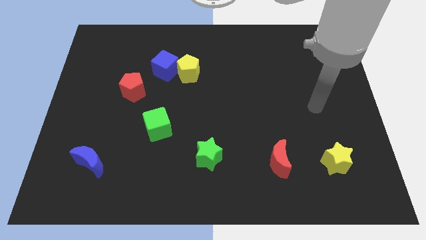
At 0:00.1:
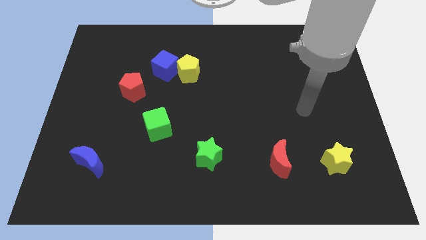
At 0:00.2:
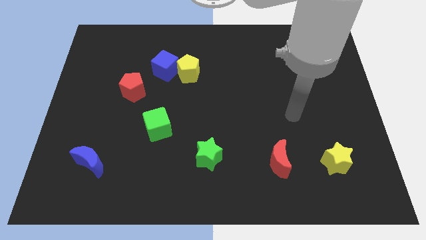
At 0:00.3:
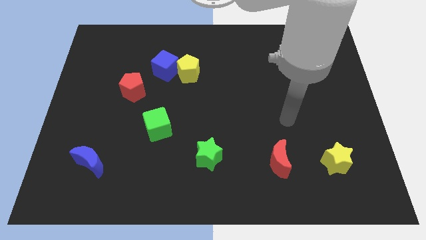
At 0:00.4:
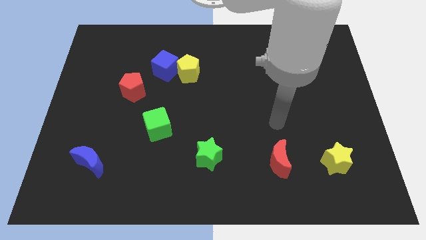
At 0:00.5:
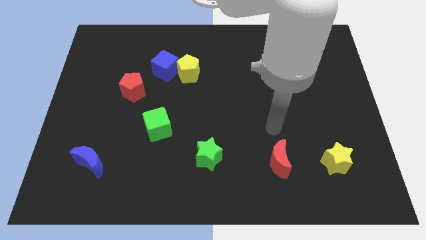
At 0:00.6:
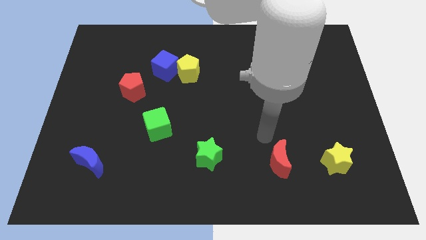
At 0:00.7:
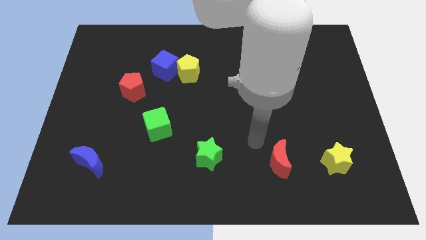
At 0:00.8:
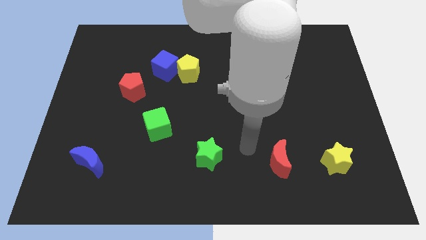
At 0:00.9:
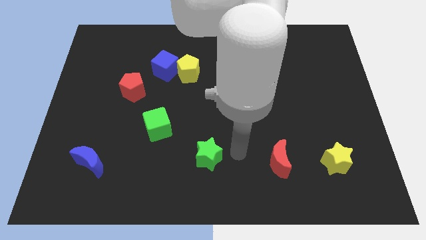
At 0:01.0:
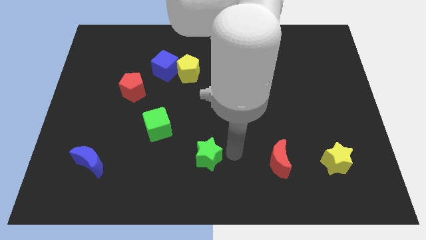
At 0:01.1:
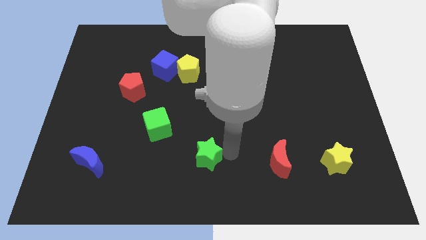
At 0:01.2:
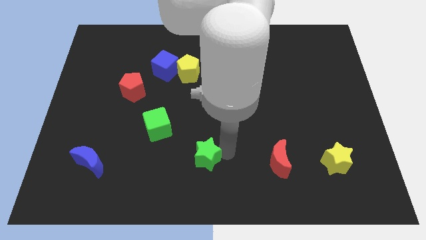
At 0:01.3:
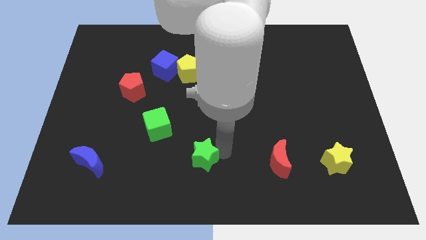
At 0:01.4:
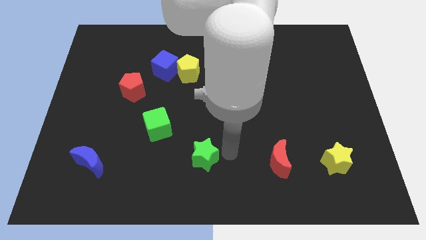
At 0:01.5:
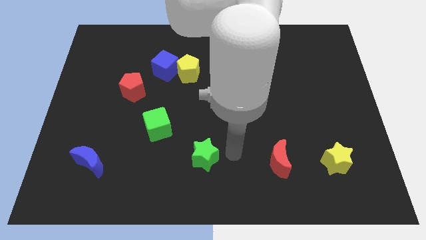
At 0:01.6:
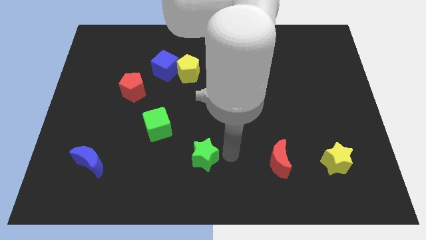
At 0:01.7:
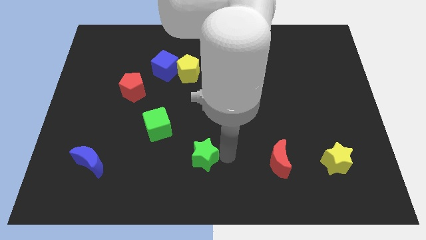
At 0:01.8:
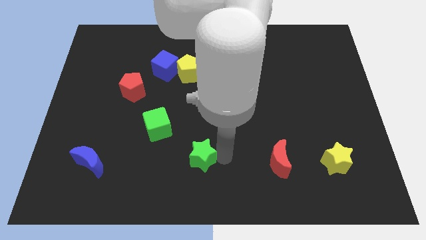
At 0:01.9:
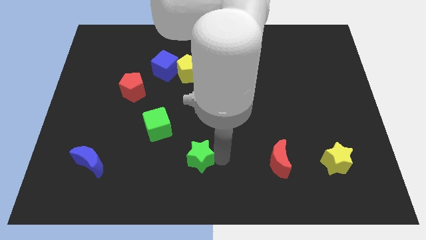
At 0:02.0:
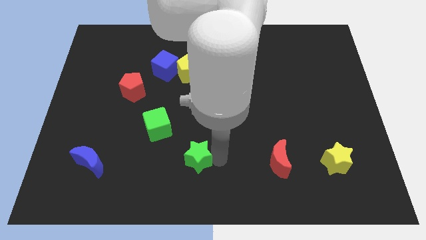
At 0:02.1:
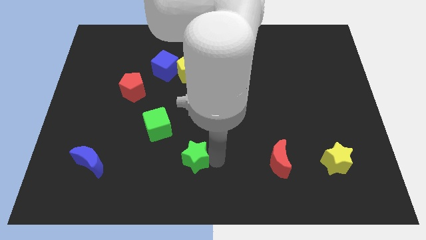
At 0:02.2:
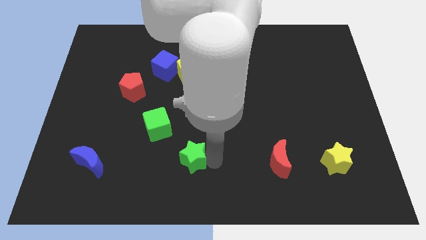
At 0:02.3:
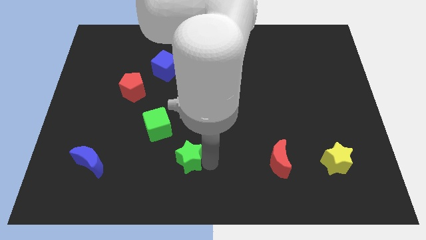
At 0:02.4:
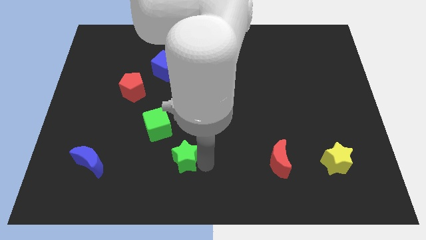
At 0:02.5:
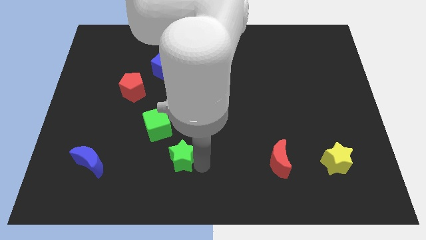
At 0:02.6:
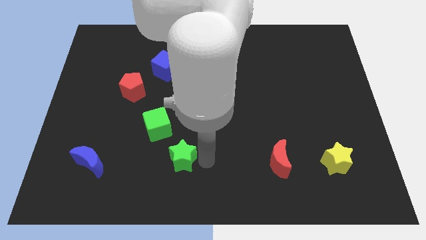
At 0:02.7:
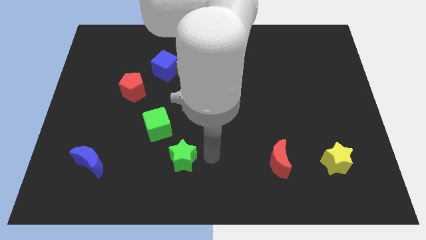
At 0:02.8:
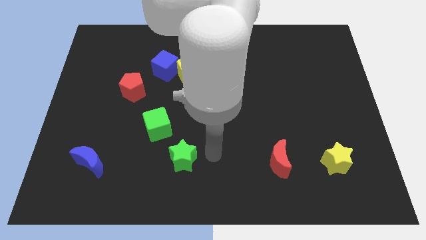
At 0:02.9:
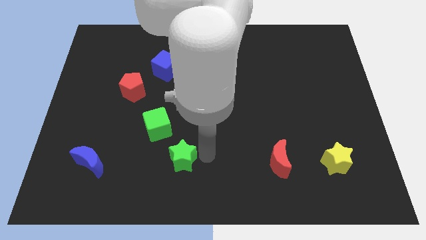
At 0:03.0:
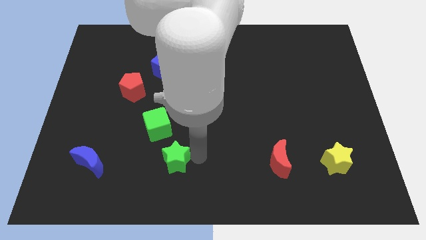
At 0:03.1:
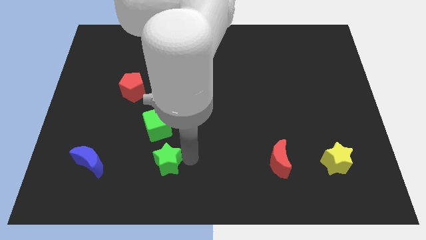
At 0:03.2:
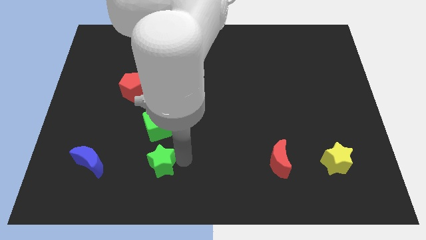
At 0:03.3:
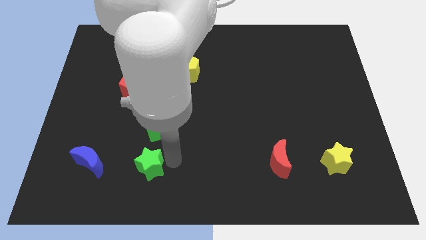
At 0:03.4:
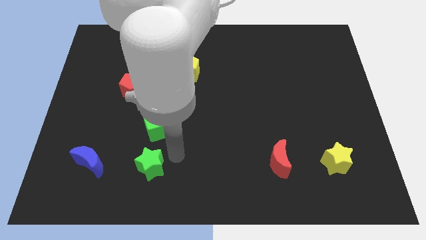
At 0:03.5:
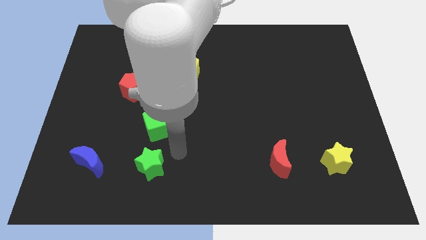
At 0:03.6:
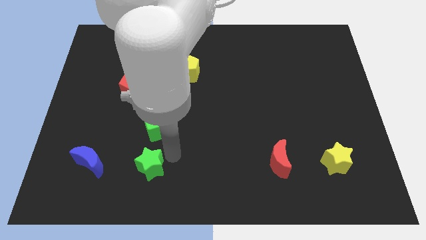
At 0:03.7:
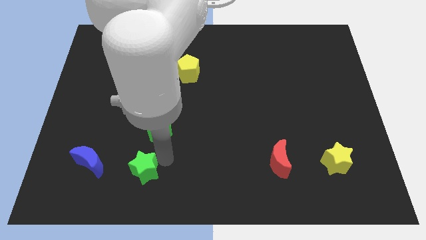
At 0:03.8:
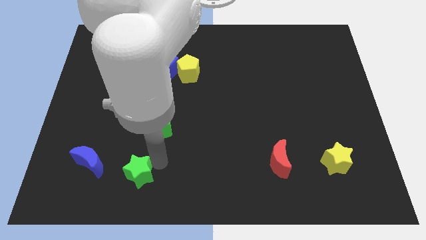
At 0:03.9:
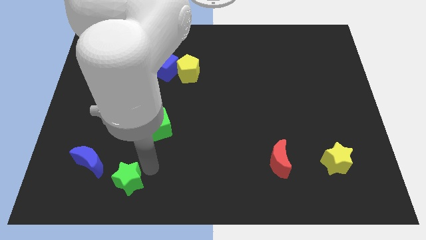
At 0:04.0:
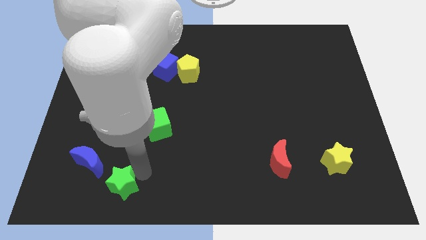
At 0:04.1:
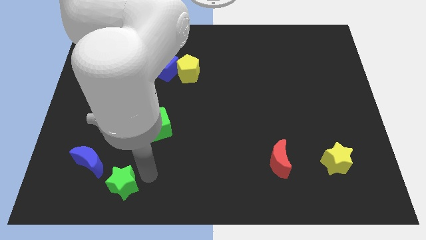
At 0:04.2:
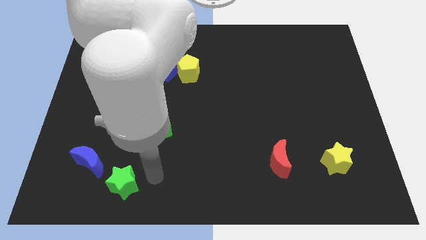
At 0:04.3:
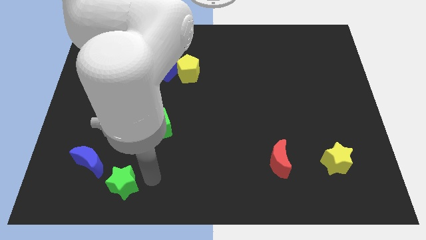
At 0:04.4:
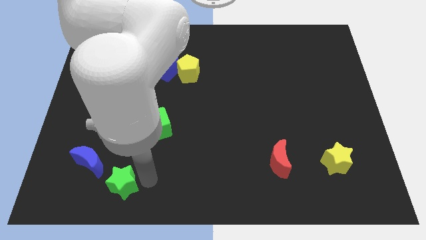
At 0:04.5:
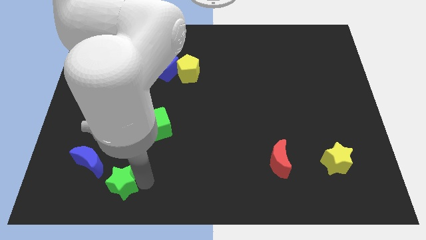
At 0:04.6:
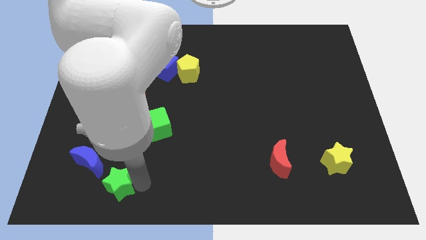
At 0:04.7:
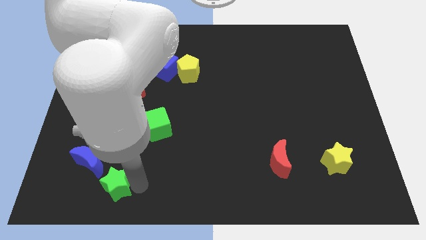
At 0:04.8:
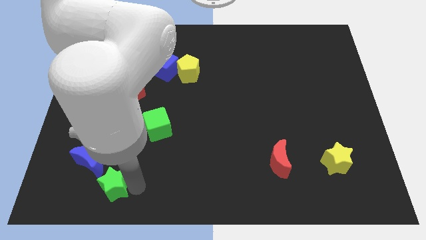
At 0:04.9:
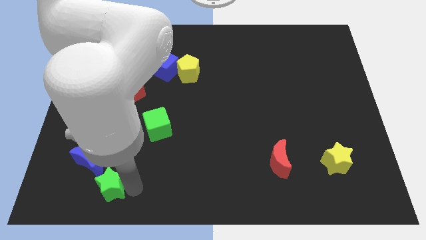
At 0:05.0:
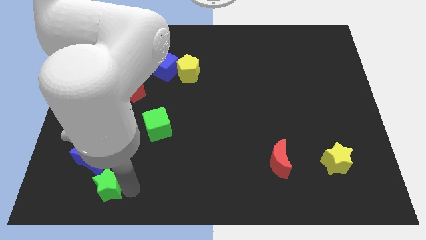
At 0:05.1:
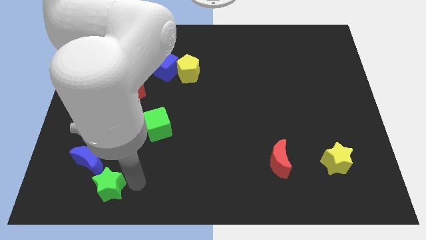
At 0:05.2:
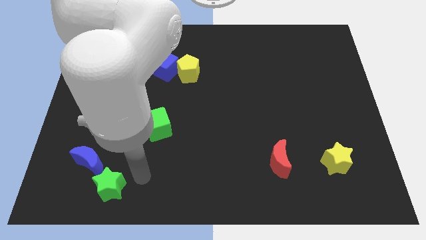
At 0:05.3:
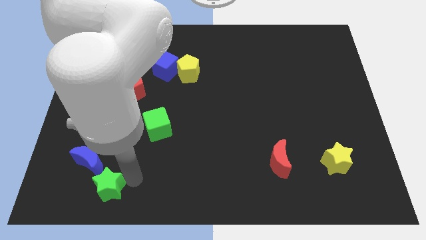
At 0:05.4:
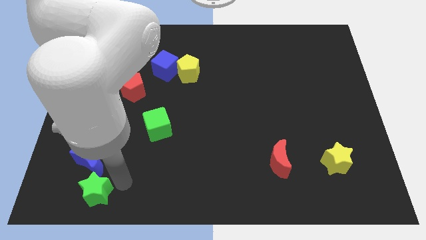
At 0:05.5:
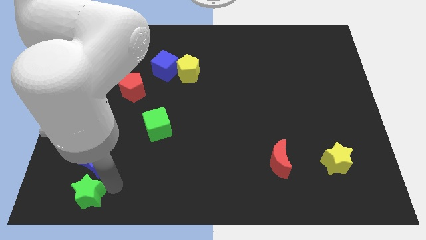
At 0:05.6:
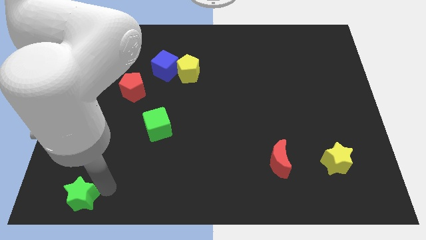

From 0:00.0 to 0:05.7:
slide the green star to the bottom left

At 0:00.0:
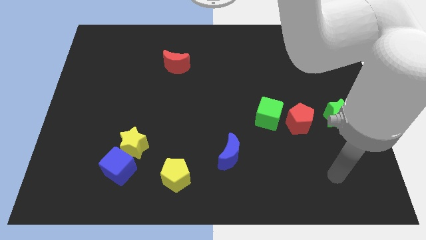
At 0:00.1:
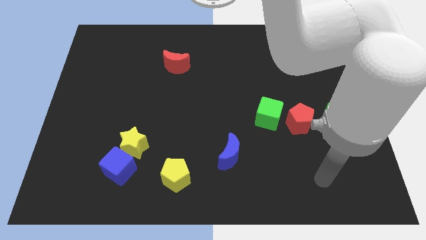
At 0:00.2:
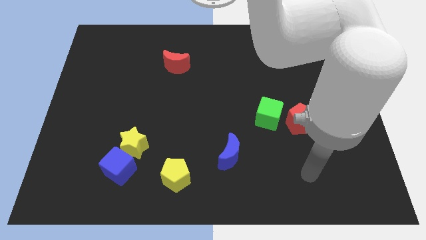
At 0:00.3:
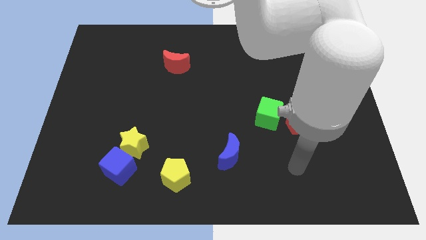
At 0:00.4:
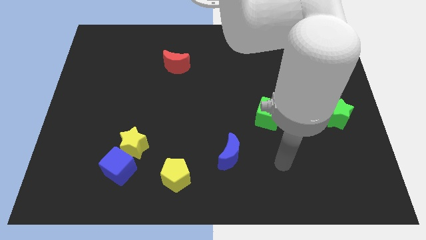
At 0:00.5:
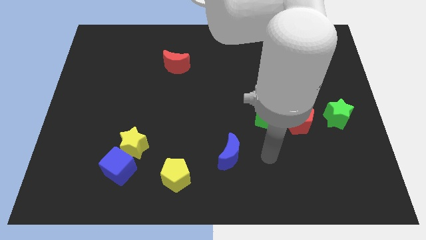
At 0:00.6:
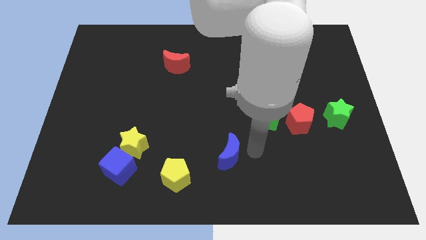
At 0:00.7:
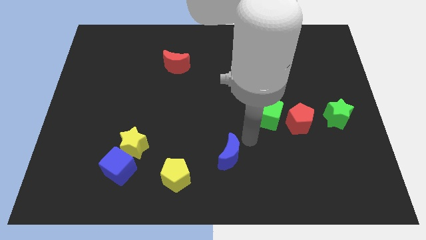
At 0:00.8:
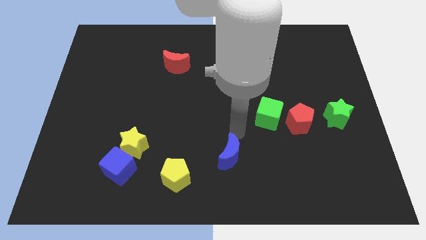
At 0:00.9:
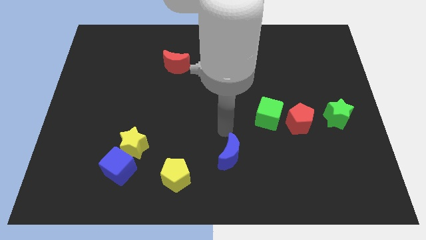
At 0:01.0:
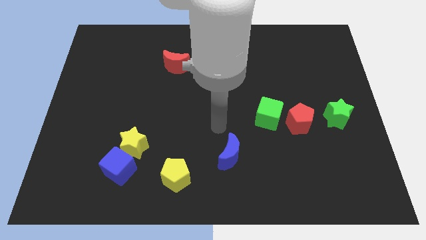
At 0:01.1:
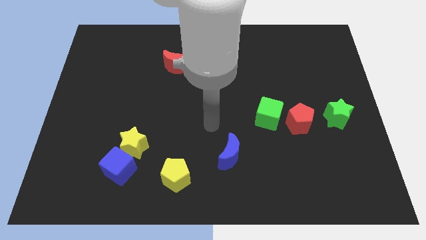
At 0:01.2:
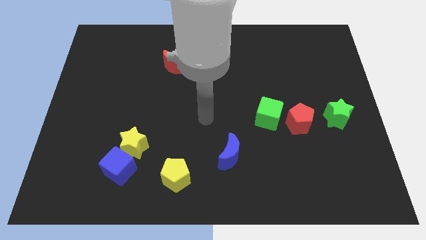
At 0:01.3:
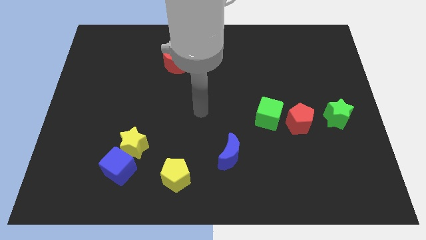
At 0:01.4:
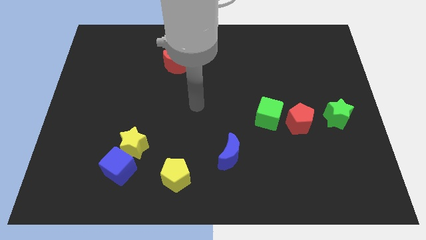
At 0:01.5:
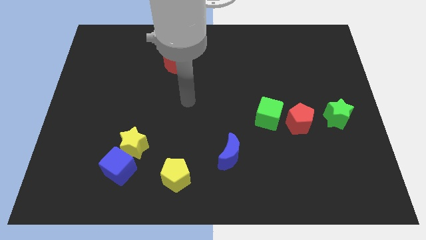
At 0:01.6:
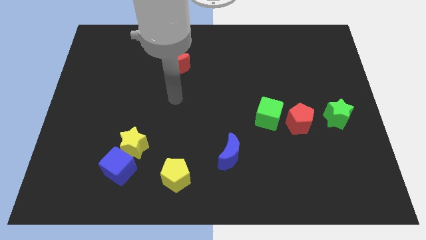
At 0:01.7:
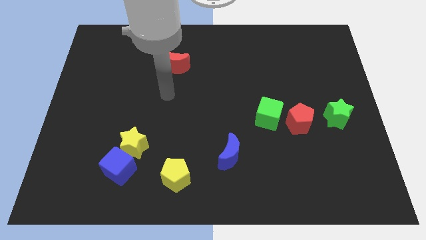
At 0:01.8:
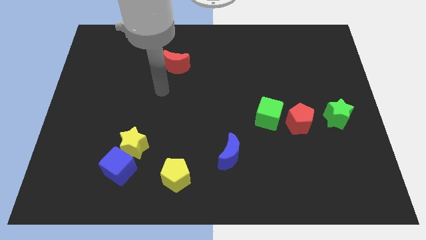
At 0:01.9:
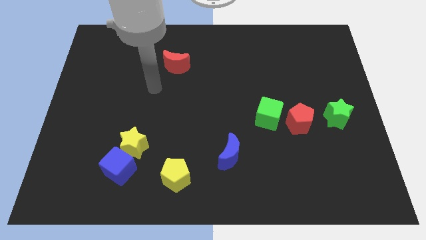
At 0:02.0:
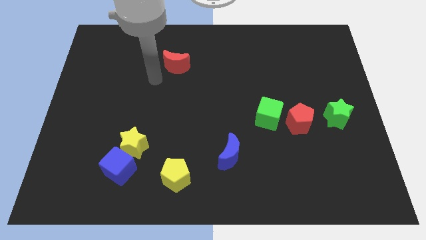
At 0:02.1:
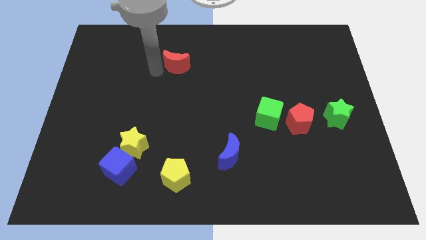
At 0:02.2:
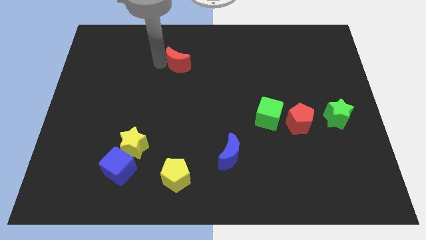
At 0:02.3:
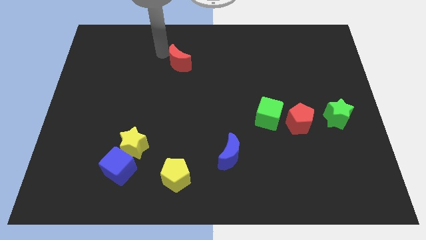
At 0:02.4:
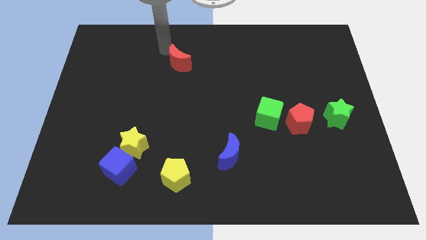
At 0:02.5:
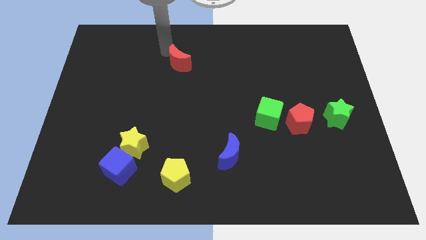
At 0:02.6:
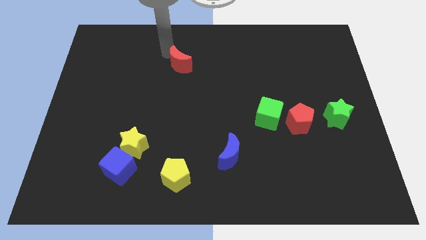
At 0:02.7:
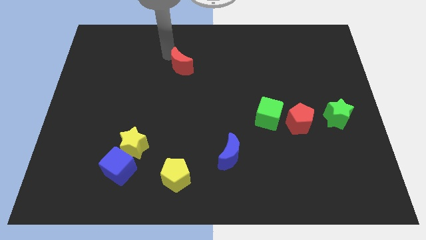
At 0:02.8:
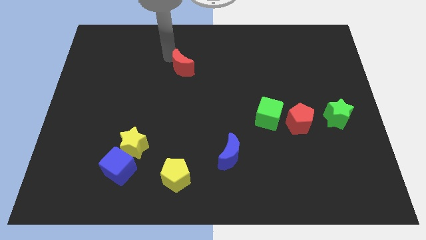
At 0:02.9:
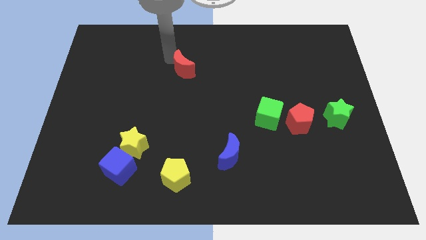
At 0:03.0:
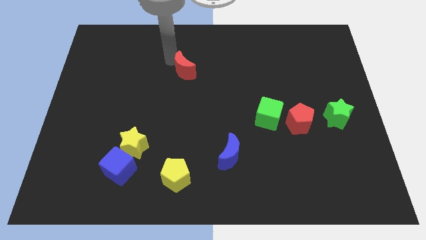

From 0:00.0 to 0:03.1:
move the red moon to the middle
